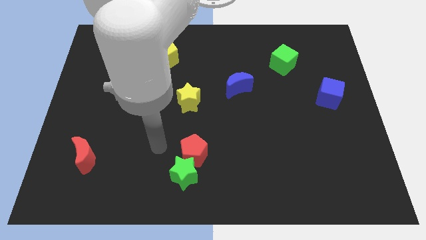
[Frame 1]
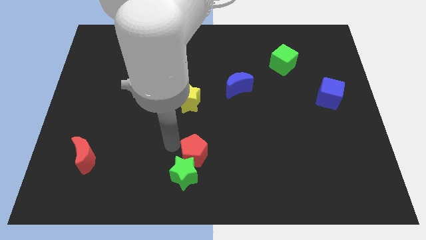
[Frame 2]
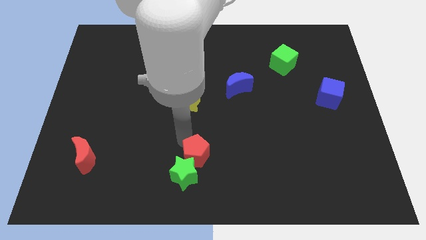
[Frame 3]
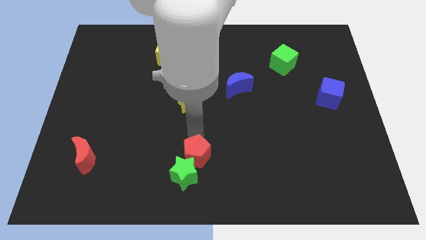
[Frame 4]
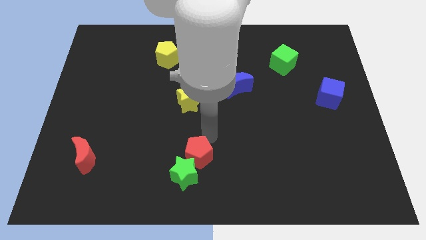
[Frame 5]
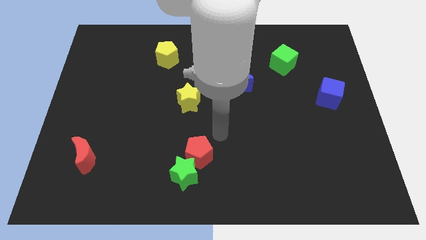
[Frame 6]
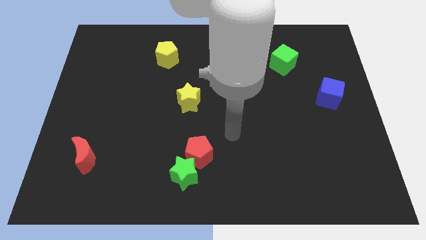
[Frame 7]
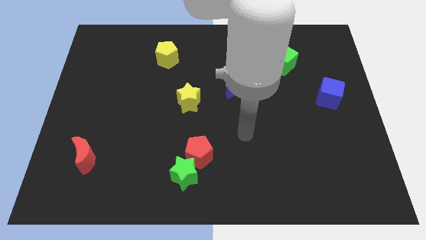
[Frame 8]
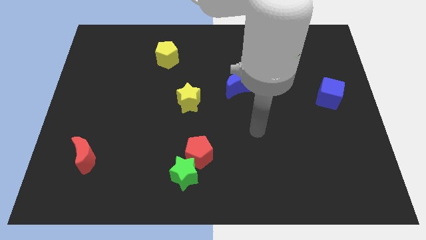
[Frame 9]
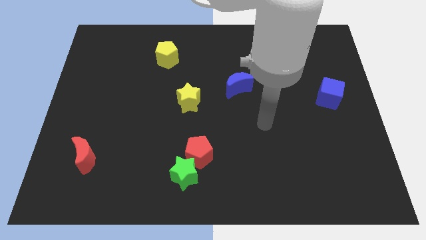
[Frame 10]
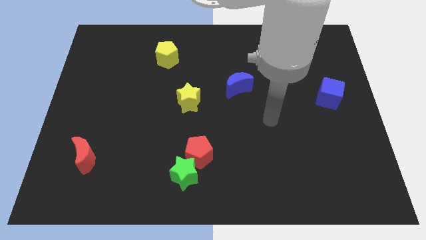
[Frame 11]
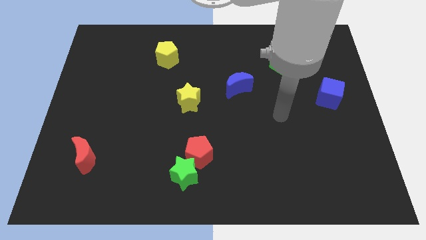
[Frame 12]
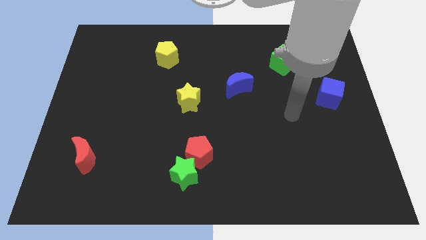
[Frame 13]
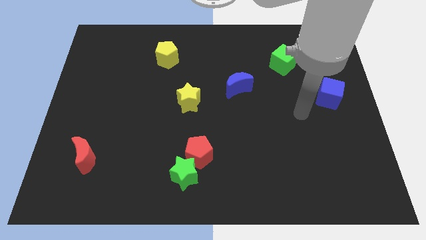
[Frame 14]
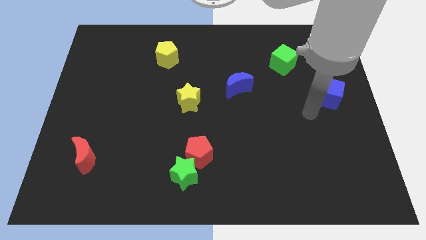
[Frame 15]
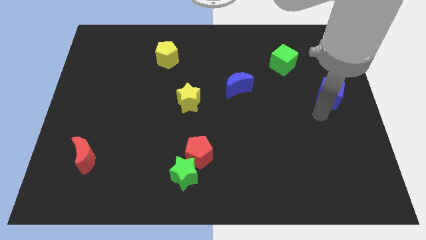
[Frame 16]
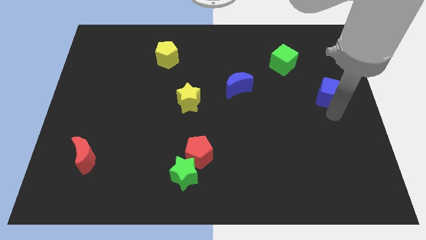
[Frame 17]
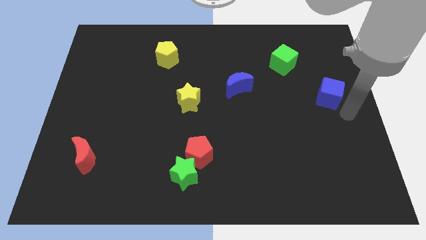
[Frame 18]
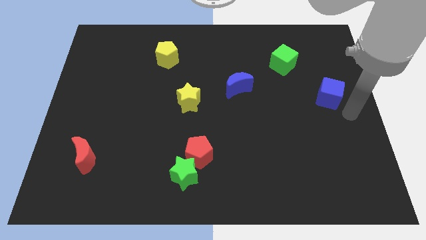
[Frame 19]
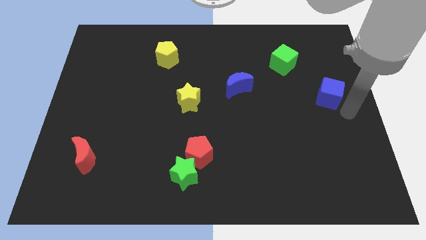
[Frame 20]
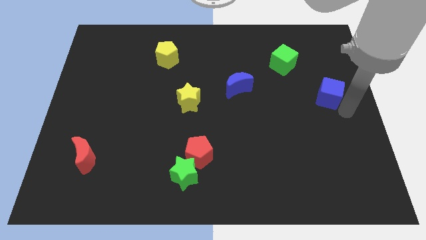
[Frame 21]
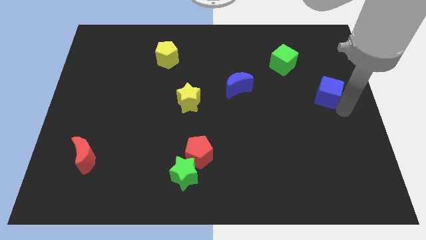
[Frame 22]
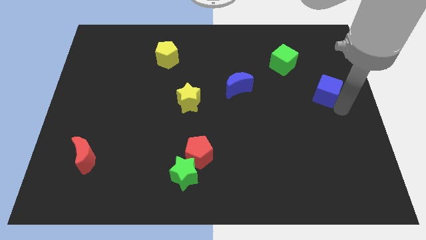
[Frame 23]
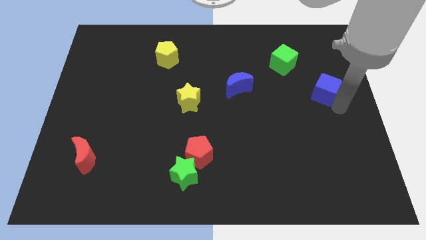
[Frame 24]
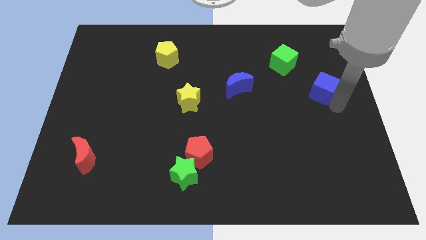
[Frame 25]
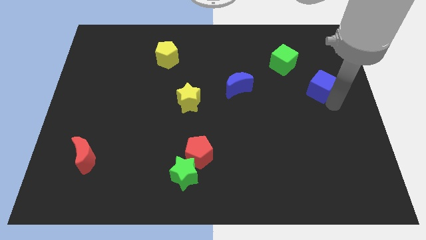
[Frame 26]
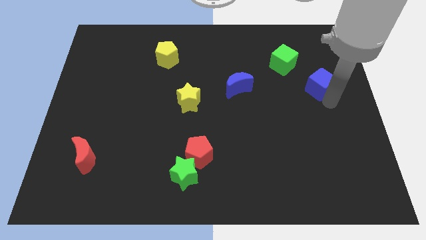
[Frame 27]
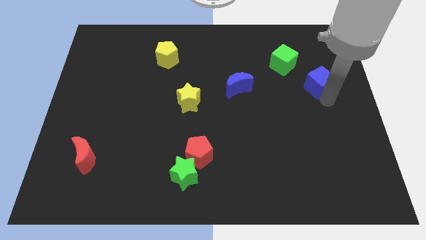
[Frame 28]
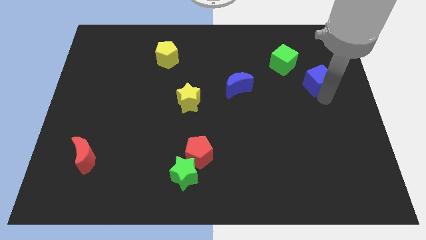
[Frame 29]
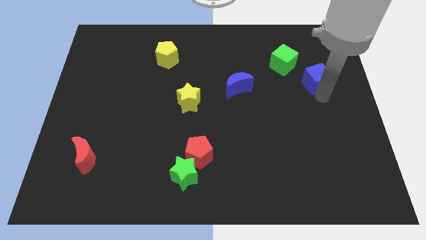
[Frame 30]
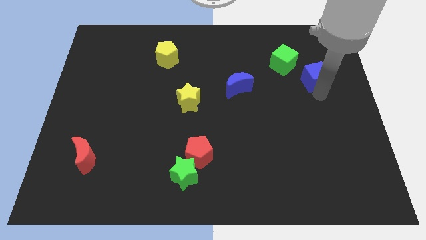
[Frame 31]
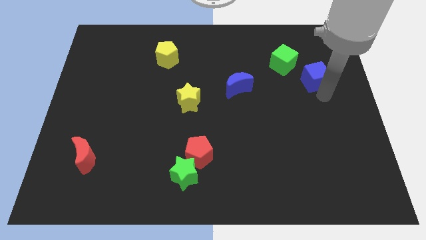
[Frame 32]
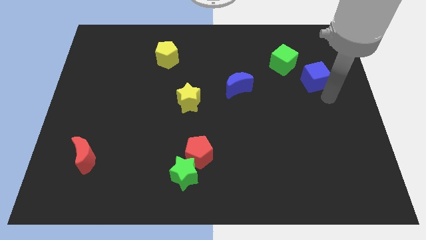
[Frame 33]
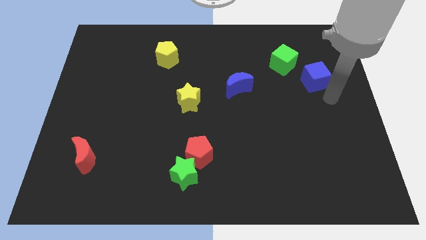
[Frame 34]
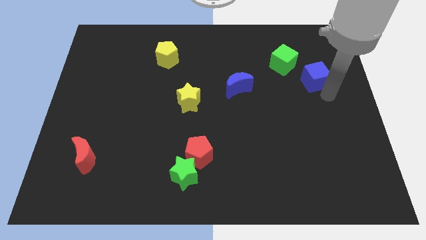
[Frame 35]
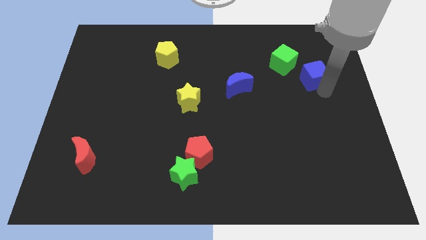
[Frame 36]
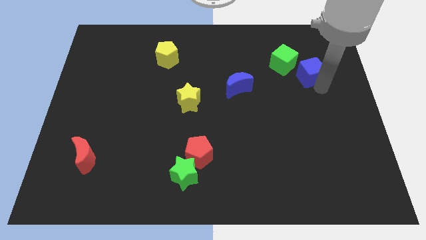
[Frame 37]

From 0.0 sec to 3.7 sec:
slightly slide the blue cube diagonally upwards and left

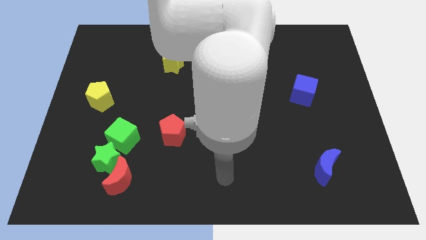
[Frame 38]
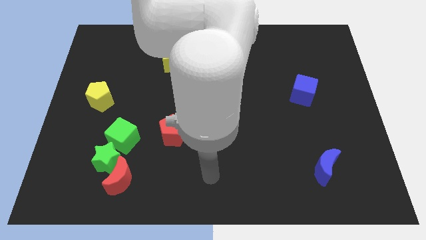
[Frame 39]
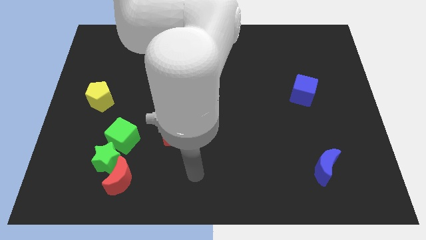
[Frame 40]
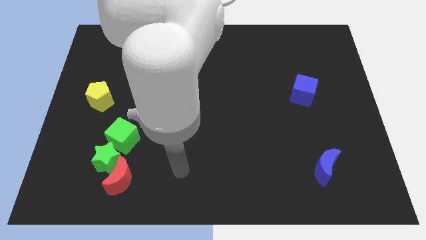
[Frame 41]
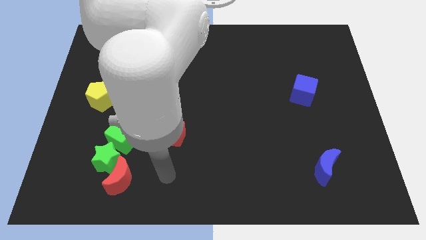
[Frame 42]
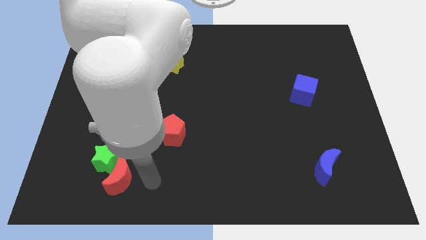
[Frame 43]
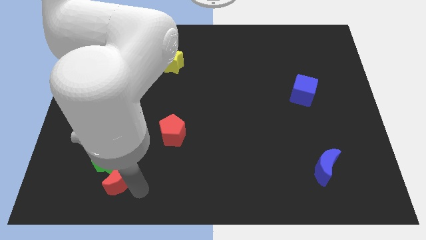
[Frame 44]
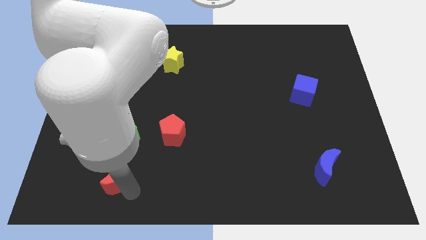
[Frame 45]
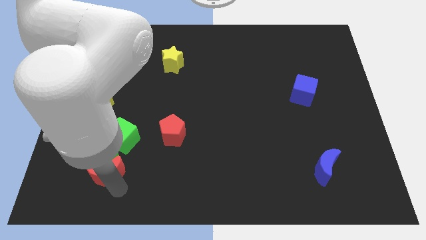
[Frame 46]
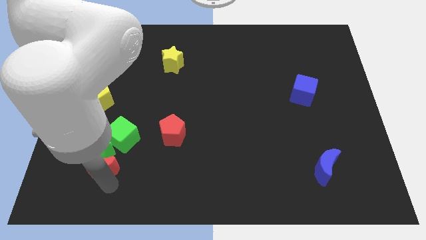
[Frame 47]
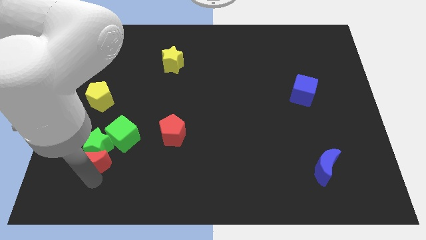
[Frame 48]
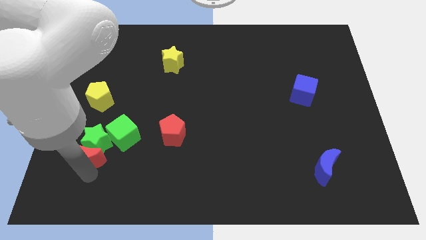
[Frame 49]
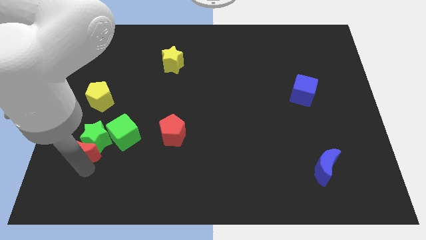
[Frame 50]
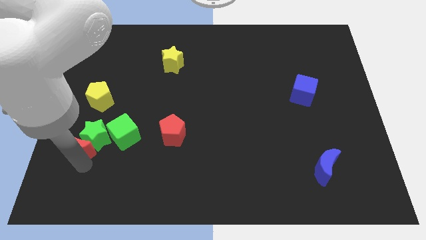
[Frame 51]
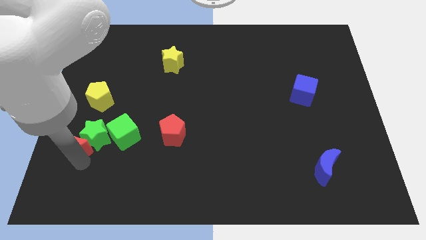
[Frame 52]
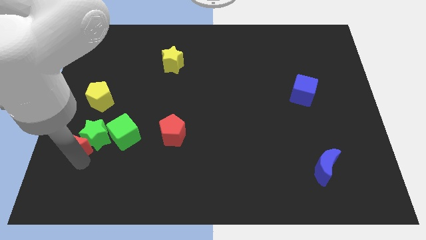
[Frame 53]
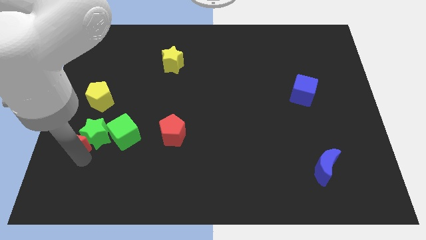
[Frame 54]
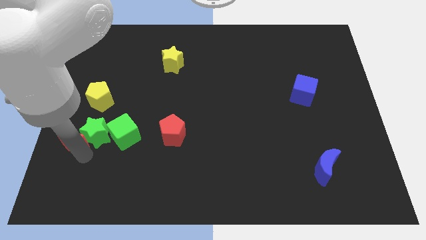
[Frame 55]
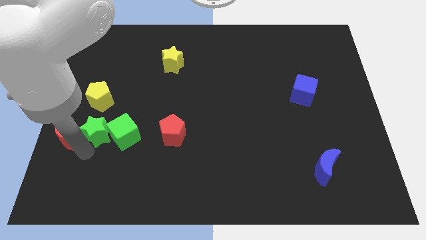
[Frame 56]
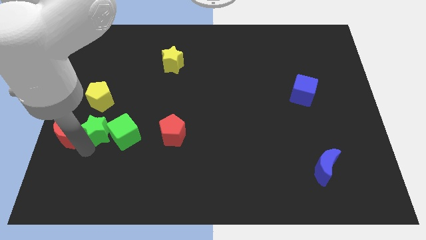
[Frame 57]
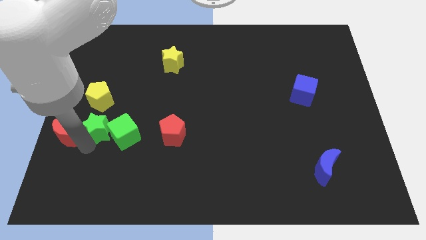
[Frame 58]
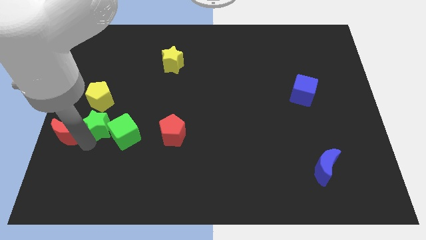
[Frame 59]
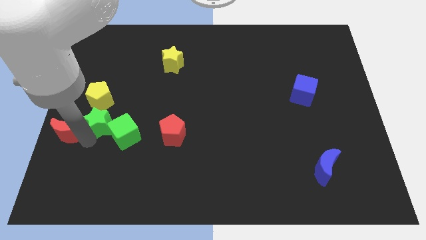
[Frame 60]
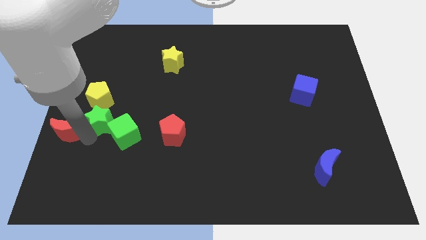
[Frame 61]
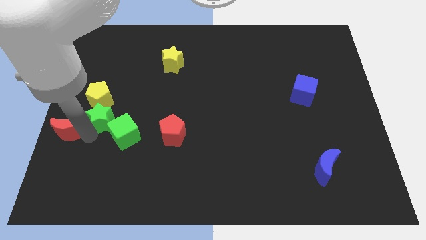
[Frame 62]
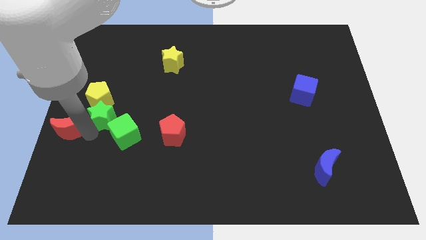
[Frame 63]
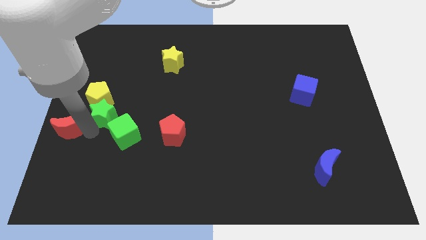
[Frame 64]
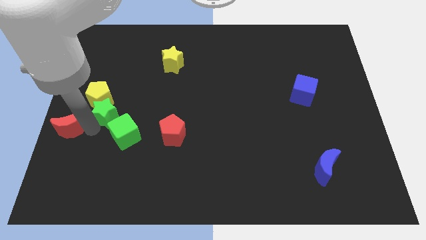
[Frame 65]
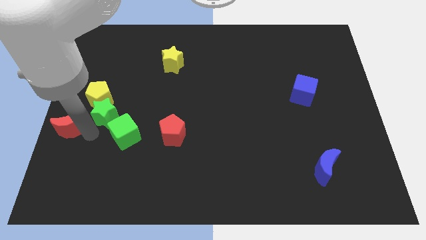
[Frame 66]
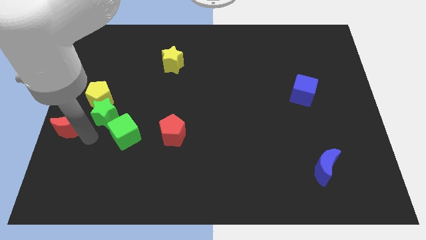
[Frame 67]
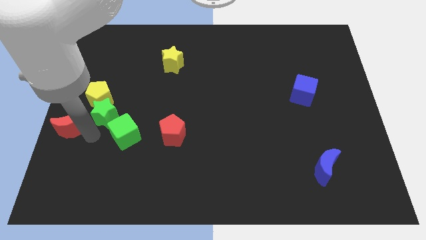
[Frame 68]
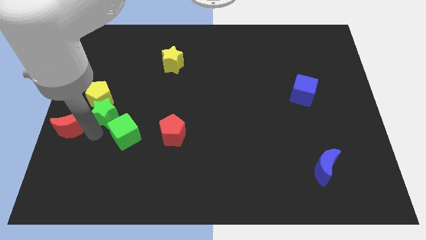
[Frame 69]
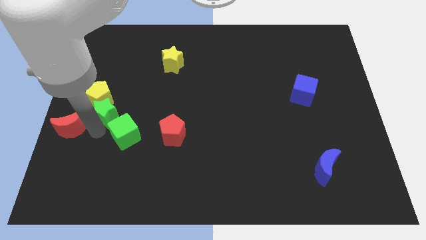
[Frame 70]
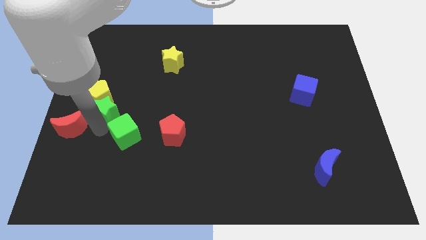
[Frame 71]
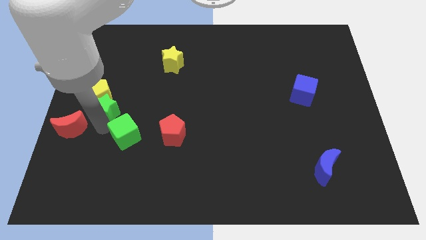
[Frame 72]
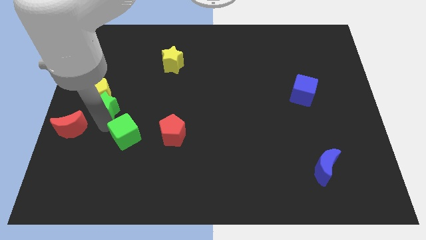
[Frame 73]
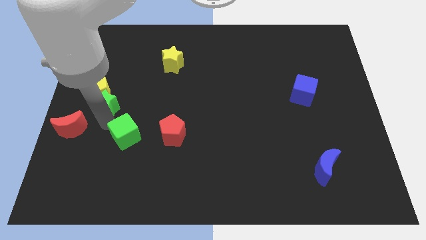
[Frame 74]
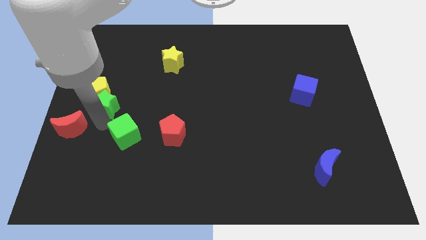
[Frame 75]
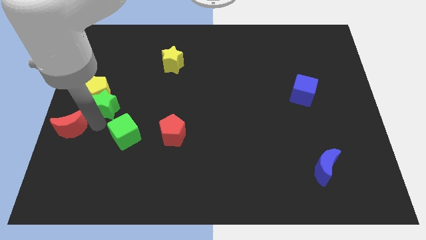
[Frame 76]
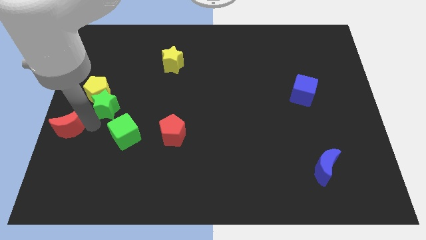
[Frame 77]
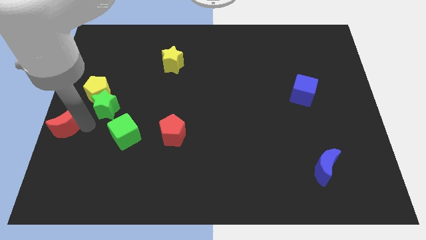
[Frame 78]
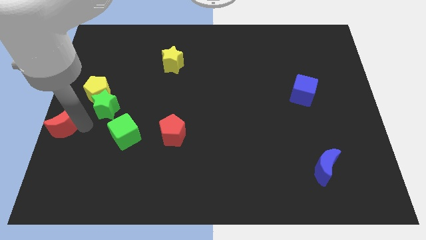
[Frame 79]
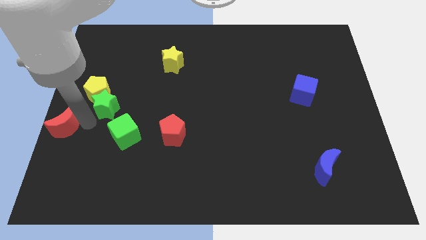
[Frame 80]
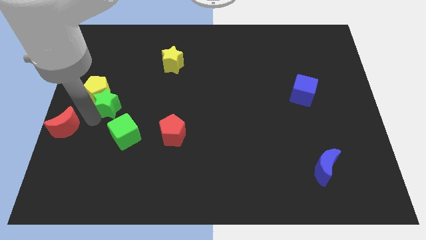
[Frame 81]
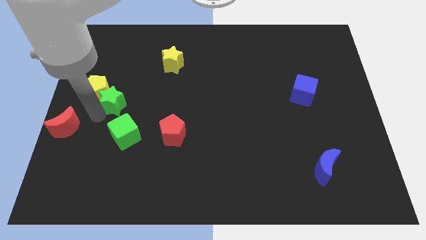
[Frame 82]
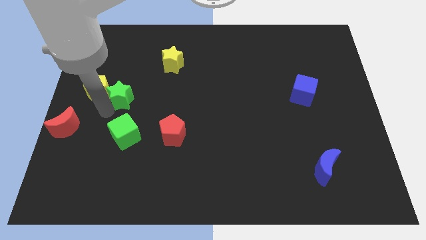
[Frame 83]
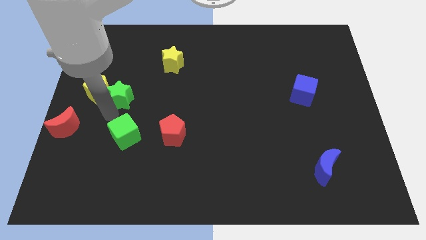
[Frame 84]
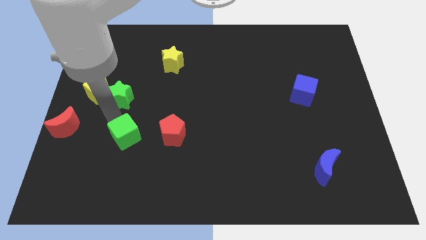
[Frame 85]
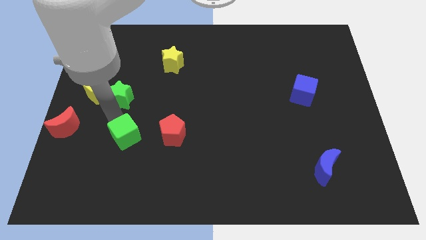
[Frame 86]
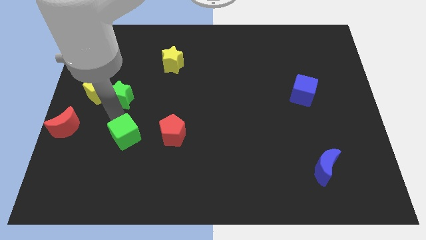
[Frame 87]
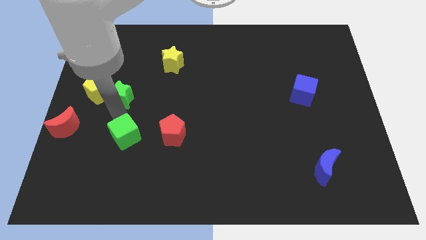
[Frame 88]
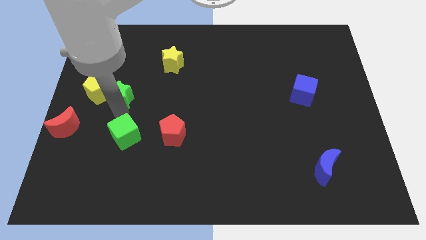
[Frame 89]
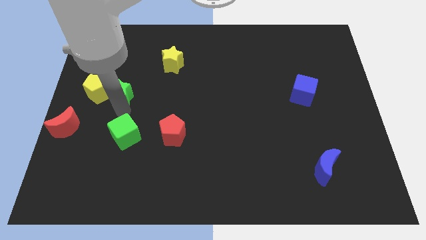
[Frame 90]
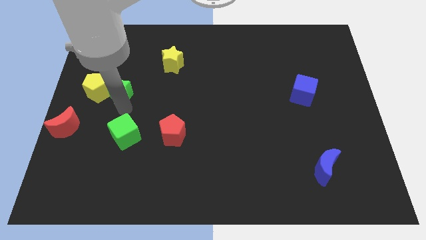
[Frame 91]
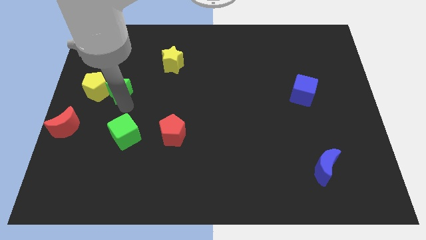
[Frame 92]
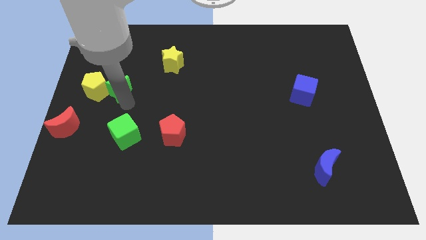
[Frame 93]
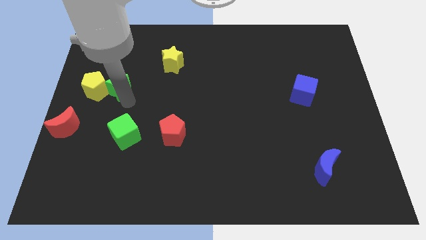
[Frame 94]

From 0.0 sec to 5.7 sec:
push the green star up
